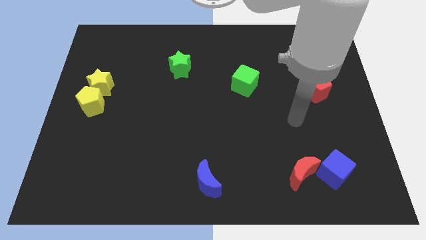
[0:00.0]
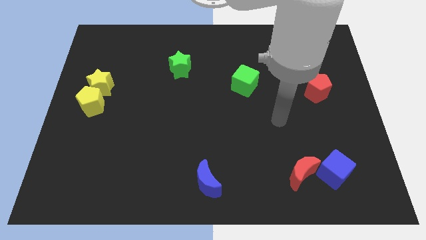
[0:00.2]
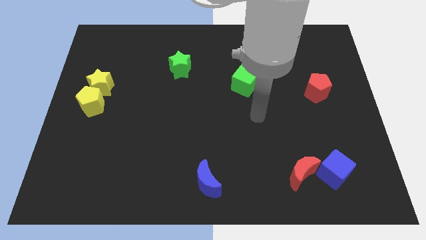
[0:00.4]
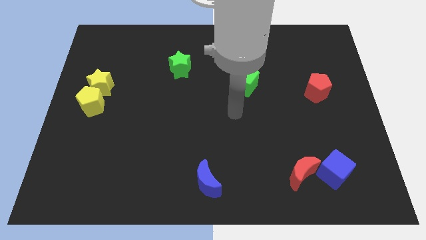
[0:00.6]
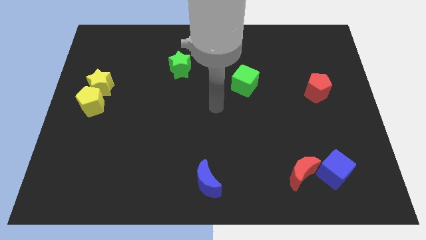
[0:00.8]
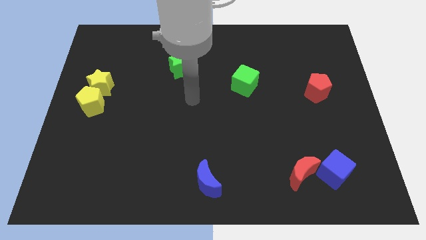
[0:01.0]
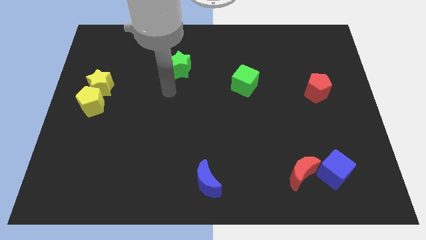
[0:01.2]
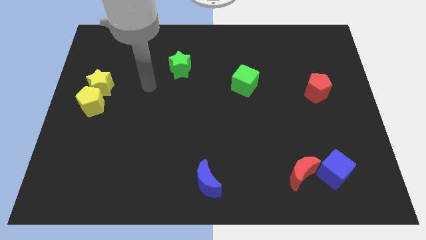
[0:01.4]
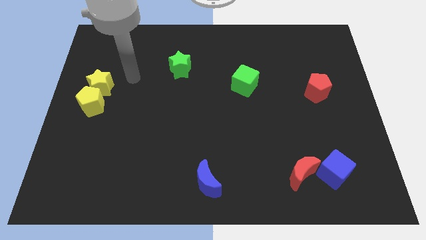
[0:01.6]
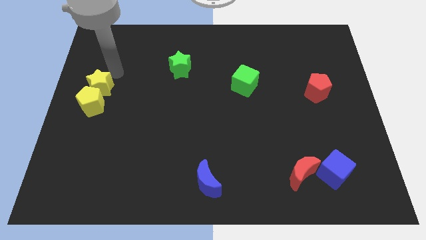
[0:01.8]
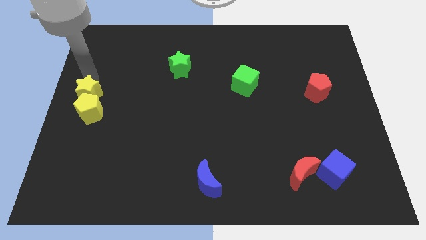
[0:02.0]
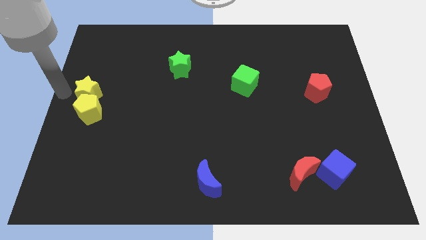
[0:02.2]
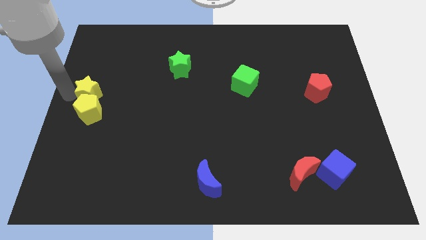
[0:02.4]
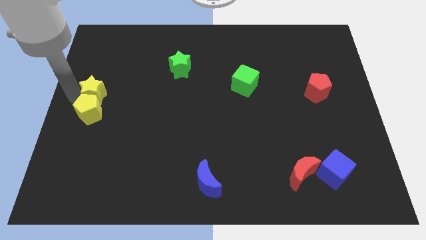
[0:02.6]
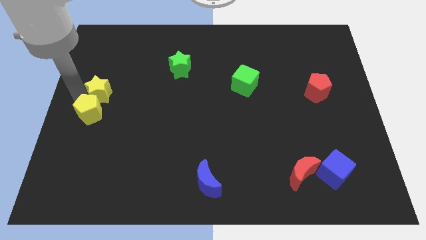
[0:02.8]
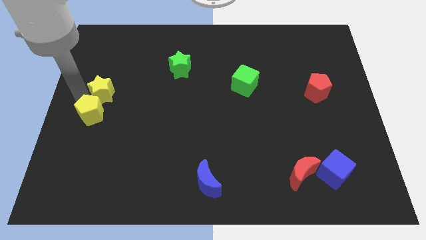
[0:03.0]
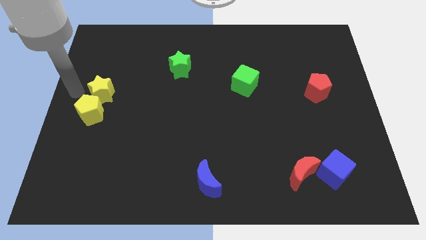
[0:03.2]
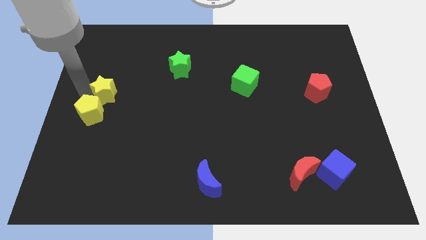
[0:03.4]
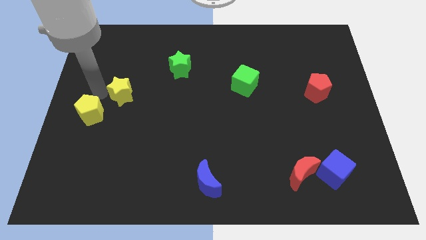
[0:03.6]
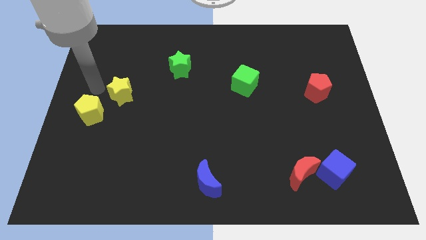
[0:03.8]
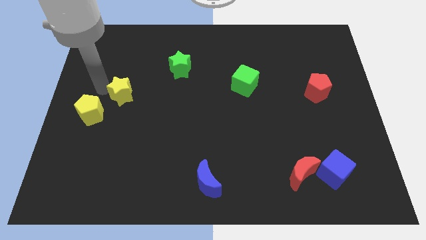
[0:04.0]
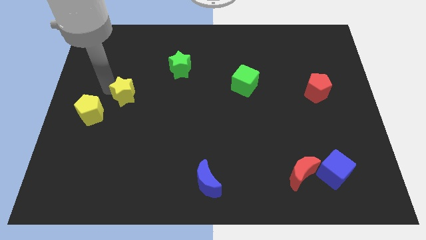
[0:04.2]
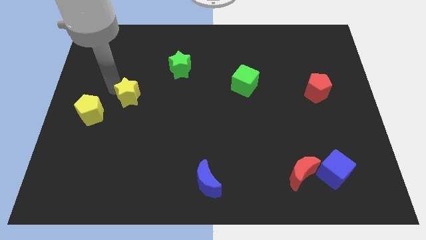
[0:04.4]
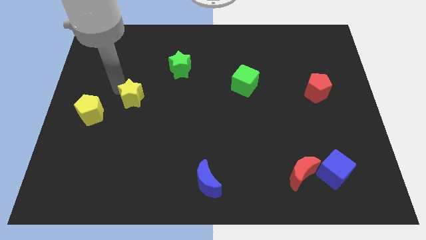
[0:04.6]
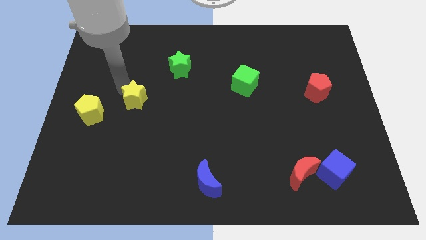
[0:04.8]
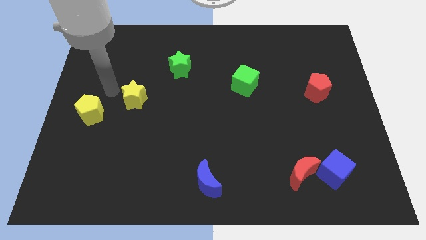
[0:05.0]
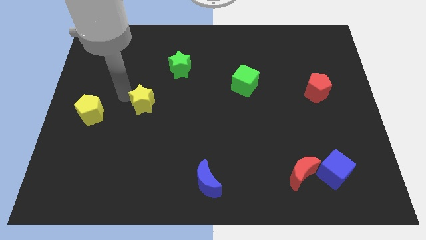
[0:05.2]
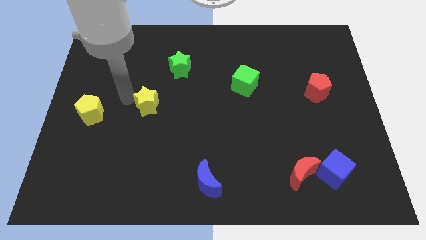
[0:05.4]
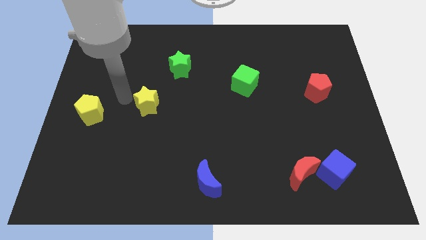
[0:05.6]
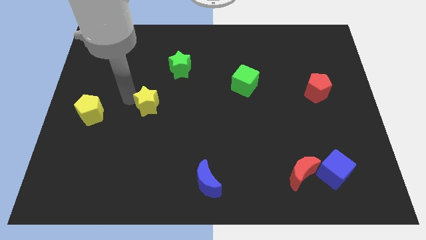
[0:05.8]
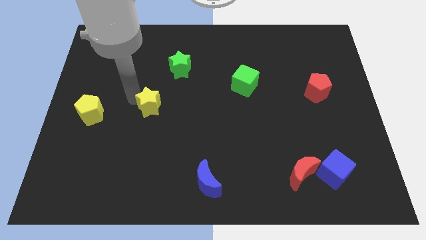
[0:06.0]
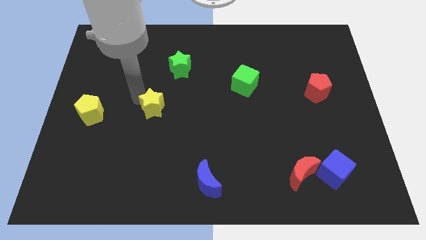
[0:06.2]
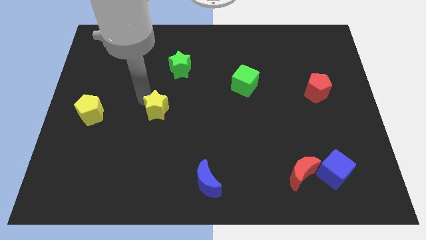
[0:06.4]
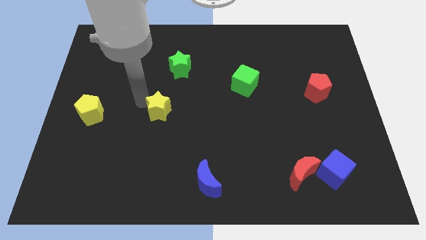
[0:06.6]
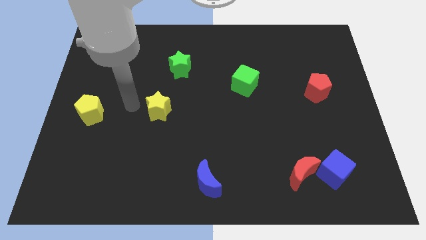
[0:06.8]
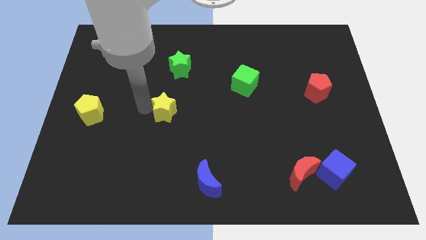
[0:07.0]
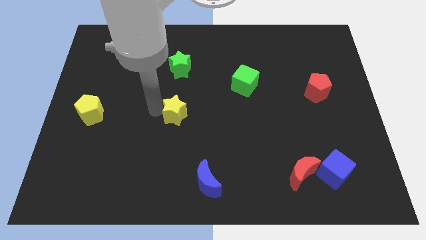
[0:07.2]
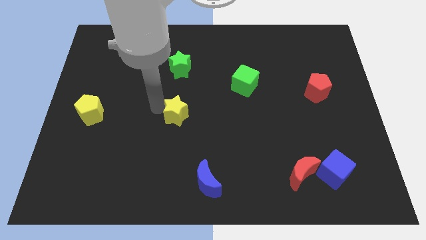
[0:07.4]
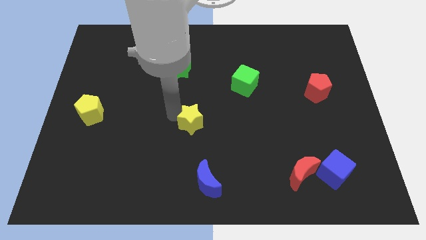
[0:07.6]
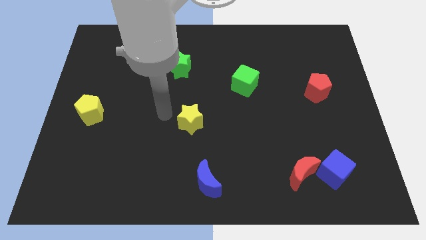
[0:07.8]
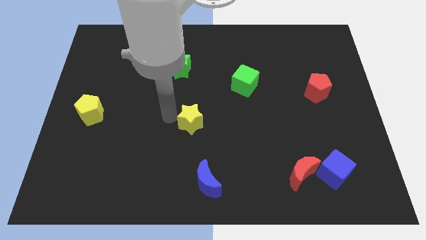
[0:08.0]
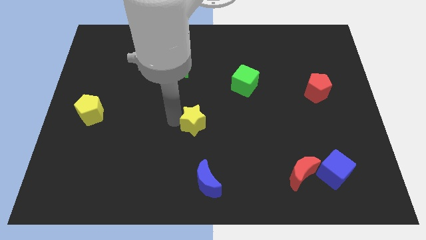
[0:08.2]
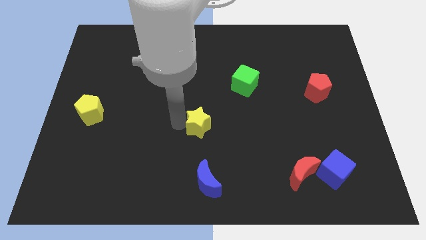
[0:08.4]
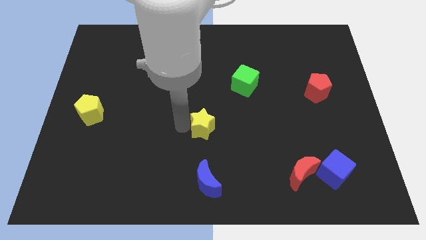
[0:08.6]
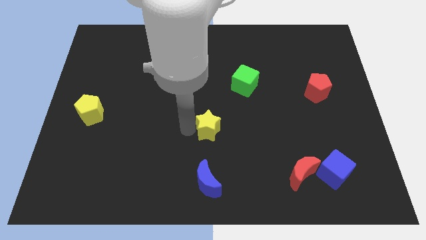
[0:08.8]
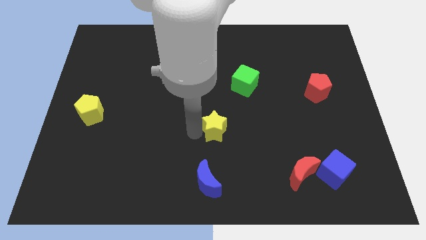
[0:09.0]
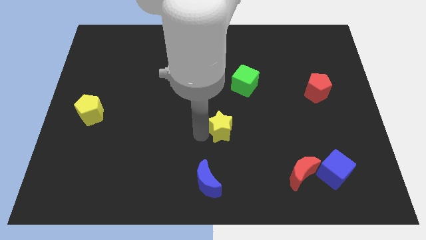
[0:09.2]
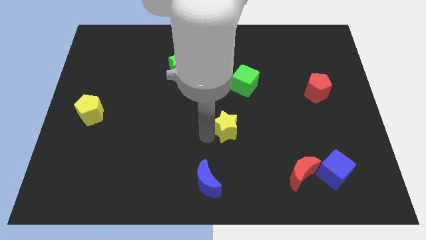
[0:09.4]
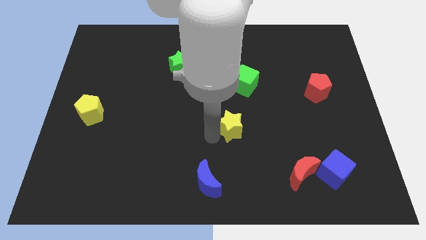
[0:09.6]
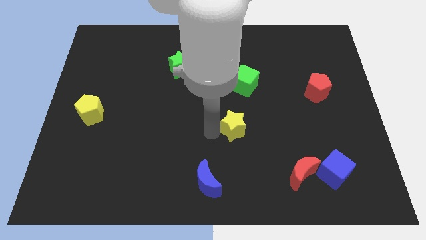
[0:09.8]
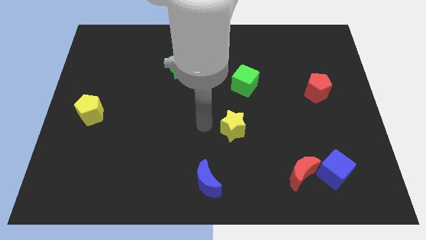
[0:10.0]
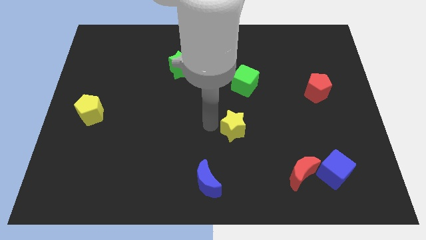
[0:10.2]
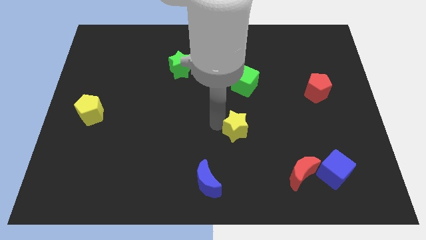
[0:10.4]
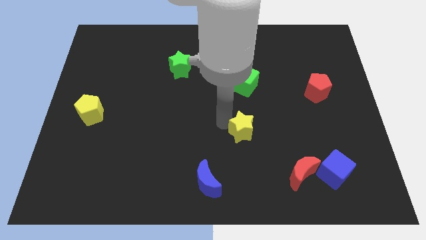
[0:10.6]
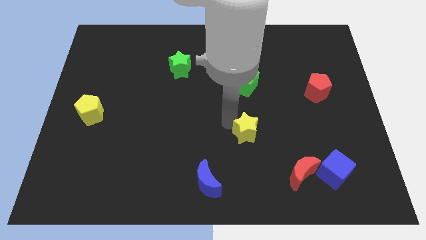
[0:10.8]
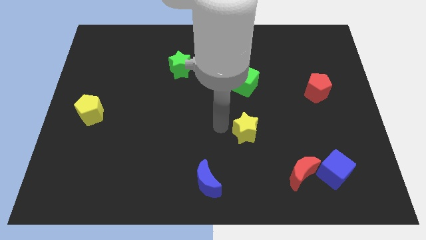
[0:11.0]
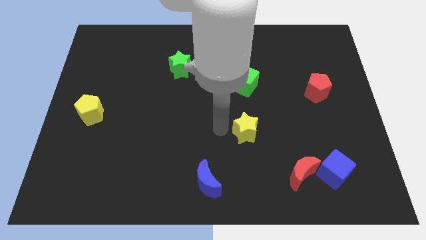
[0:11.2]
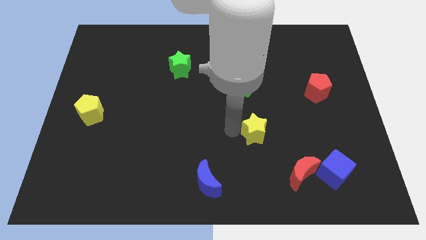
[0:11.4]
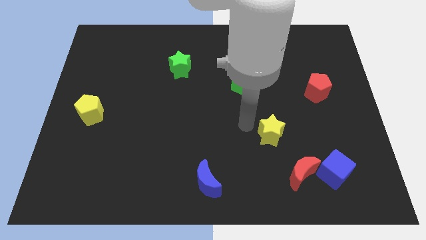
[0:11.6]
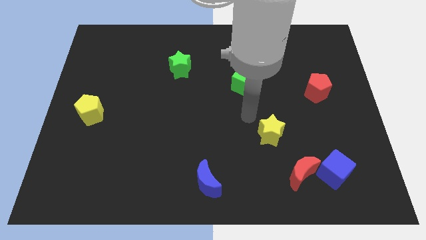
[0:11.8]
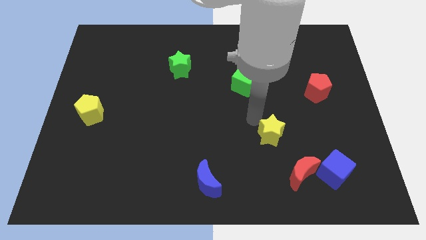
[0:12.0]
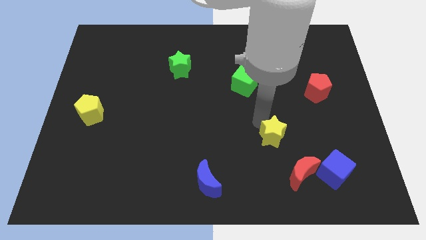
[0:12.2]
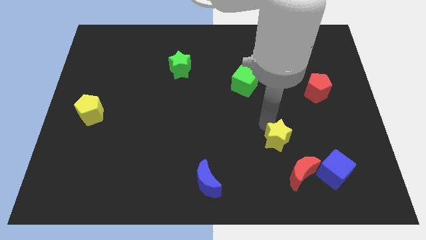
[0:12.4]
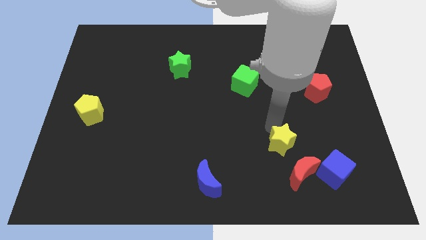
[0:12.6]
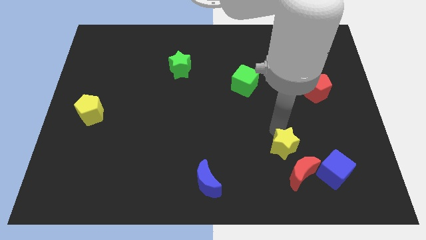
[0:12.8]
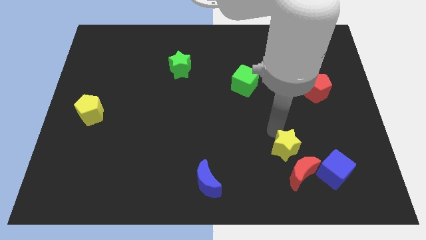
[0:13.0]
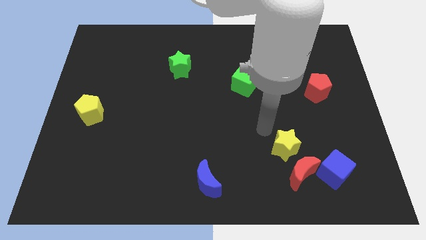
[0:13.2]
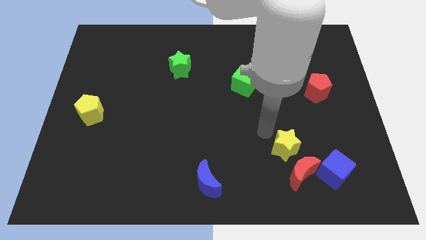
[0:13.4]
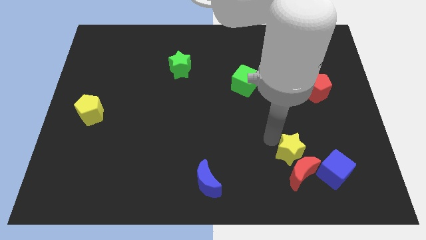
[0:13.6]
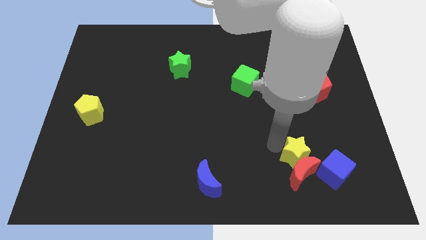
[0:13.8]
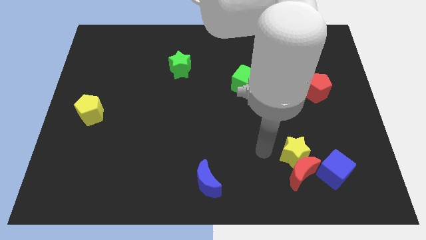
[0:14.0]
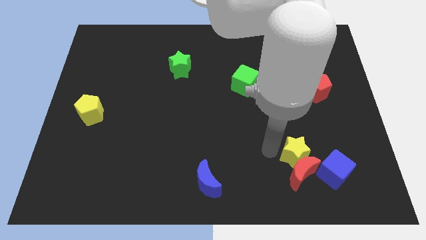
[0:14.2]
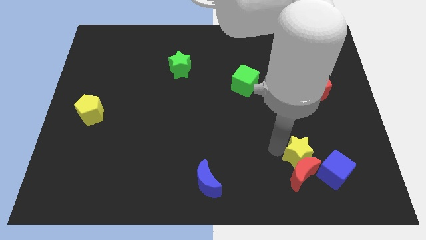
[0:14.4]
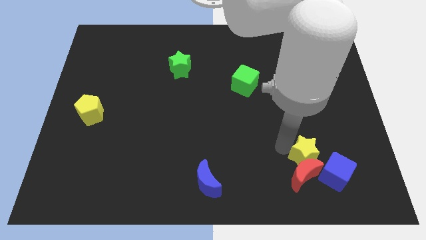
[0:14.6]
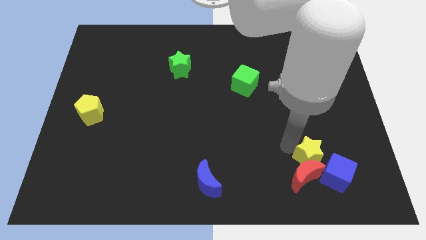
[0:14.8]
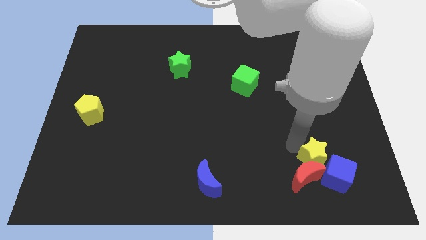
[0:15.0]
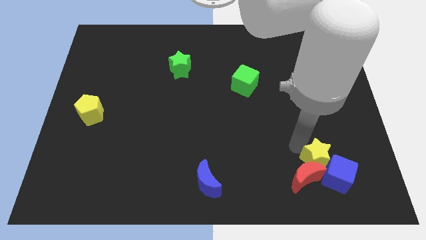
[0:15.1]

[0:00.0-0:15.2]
push the yellow star to the blue cube

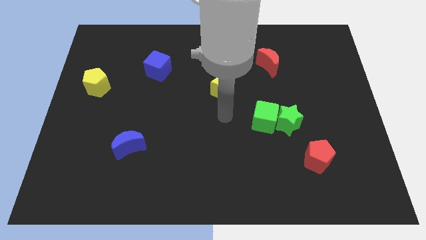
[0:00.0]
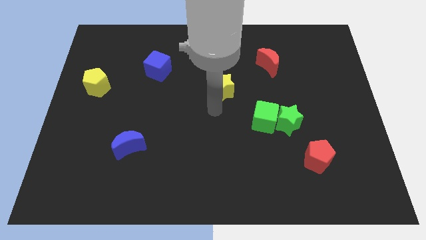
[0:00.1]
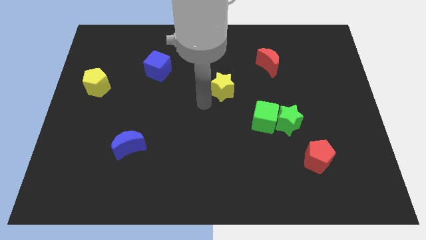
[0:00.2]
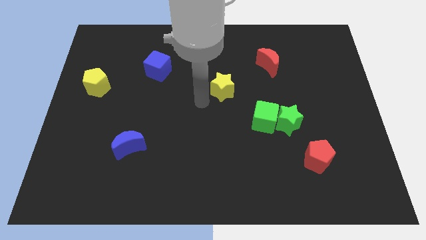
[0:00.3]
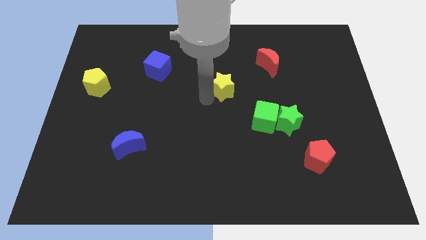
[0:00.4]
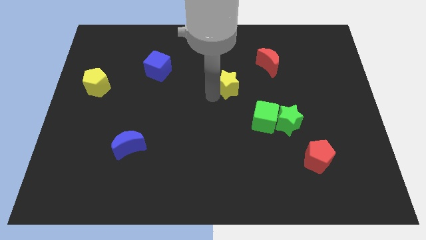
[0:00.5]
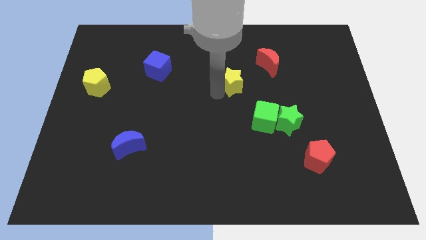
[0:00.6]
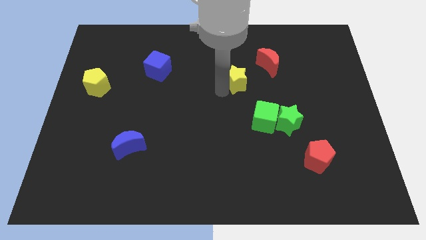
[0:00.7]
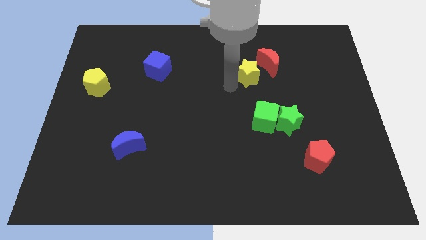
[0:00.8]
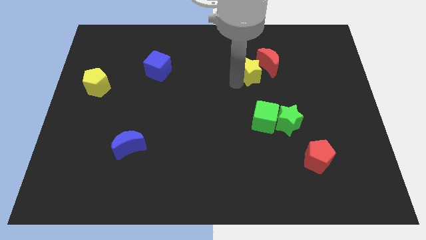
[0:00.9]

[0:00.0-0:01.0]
move the yellow star close to the red moon
